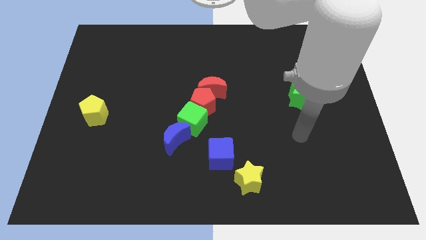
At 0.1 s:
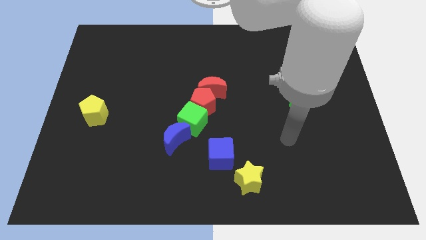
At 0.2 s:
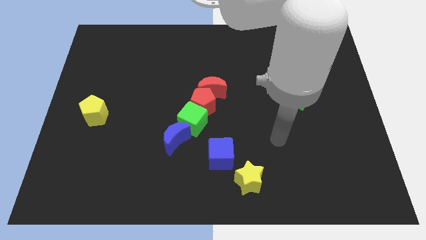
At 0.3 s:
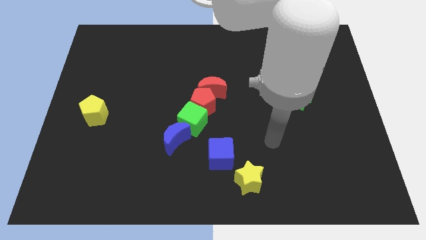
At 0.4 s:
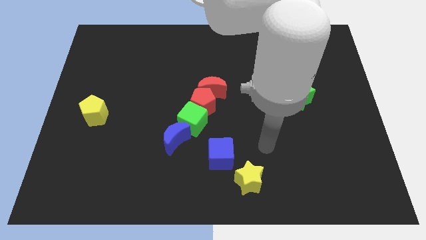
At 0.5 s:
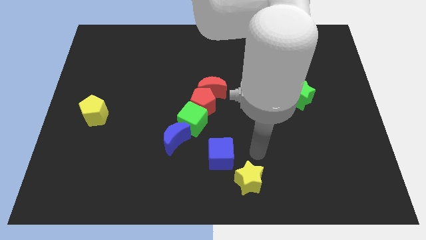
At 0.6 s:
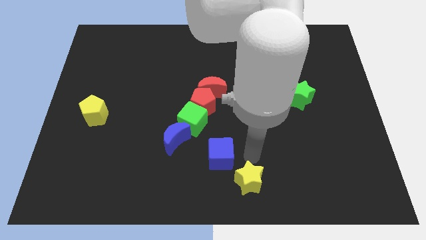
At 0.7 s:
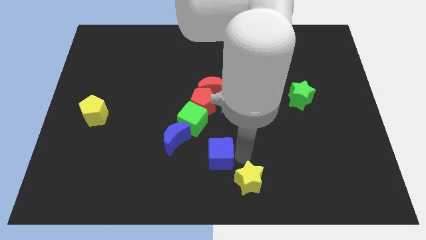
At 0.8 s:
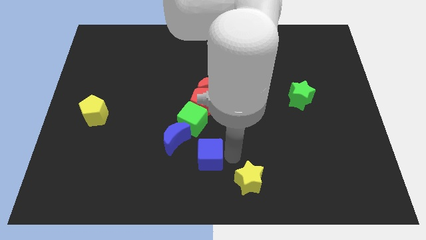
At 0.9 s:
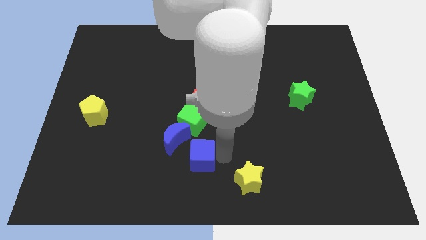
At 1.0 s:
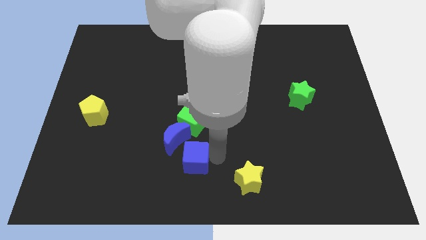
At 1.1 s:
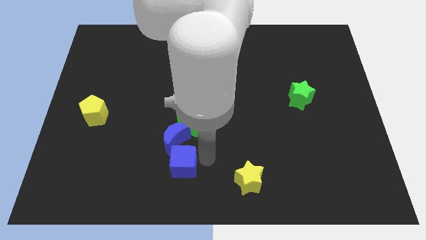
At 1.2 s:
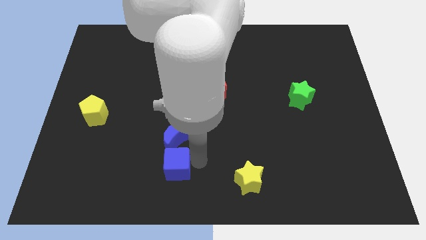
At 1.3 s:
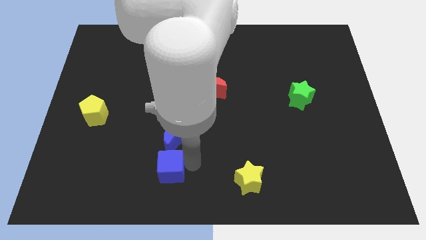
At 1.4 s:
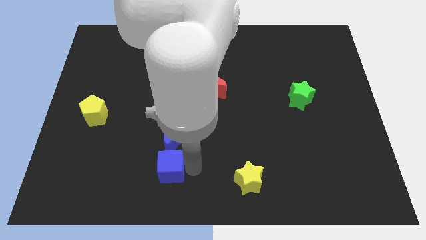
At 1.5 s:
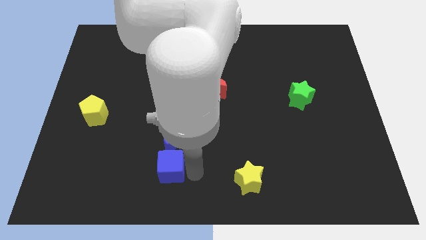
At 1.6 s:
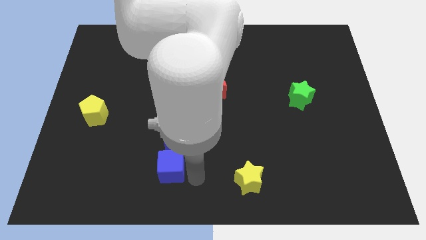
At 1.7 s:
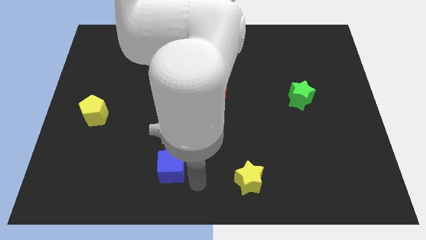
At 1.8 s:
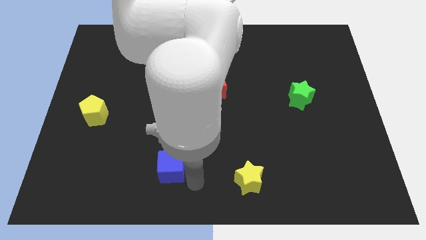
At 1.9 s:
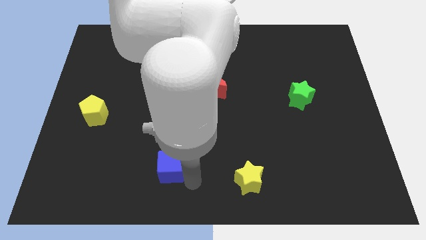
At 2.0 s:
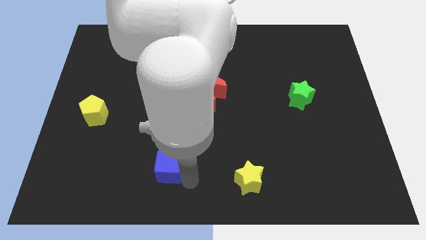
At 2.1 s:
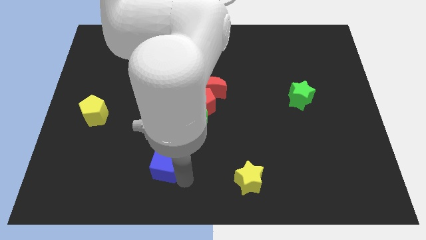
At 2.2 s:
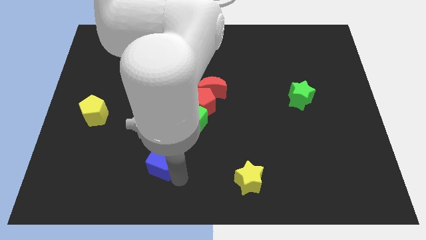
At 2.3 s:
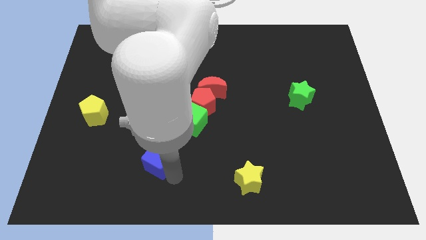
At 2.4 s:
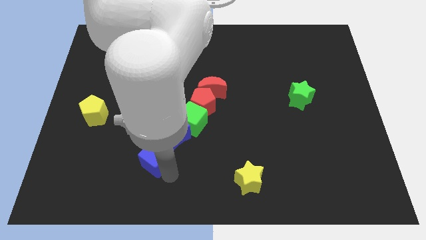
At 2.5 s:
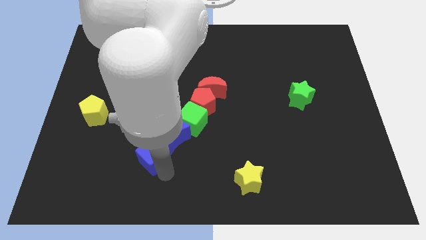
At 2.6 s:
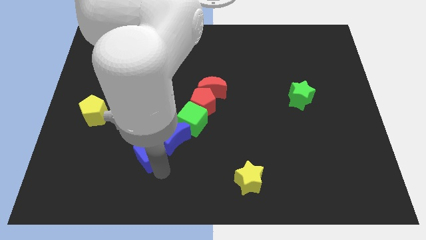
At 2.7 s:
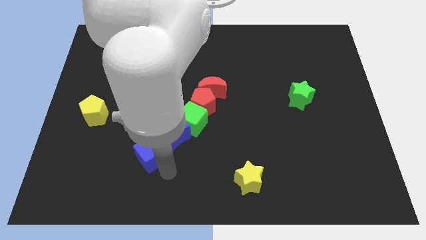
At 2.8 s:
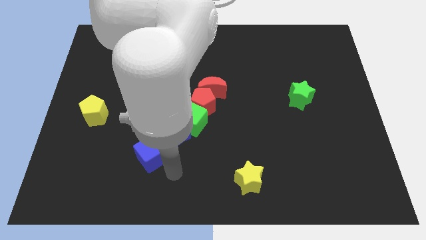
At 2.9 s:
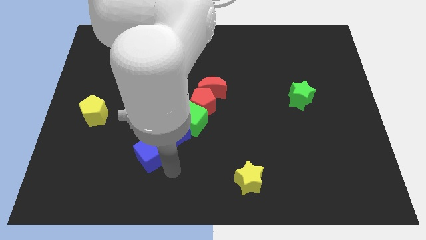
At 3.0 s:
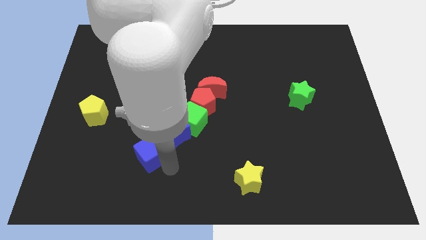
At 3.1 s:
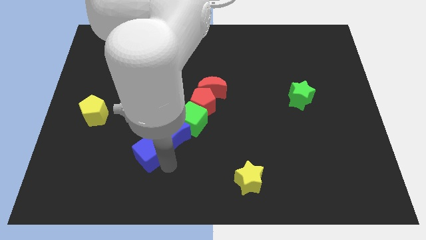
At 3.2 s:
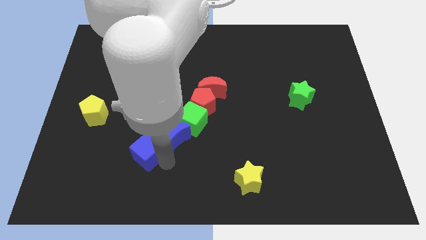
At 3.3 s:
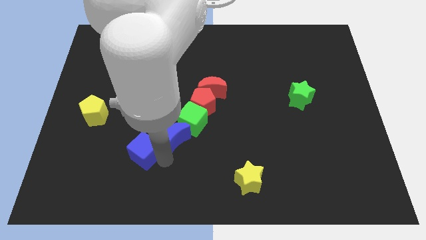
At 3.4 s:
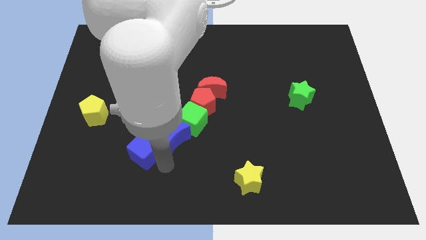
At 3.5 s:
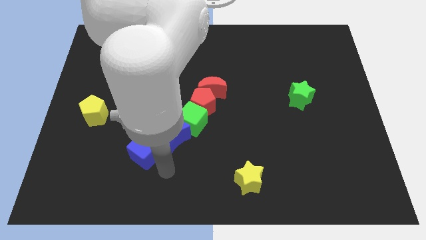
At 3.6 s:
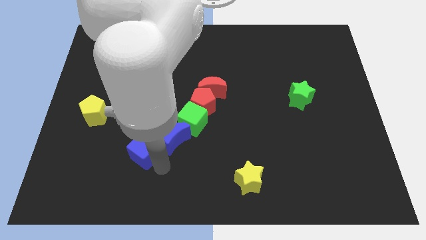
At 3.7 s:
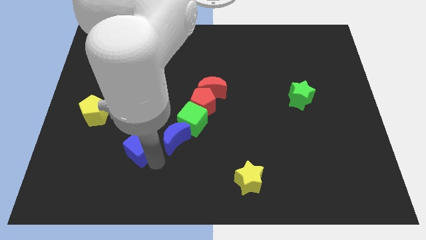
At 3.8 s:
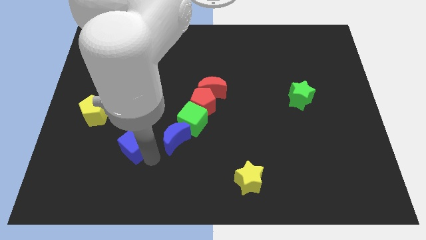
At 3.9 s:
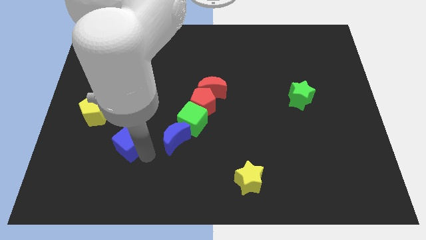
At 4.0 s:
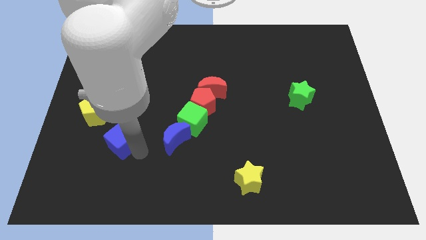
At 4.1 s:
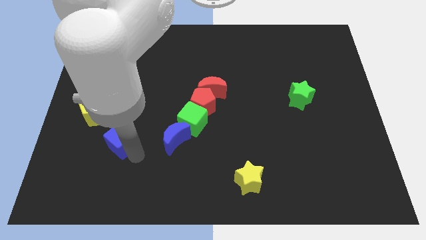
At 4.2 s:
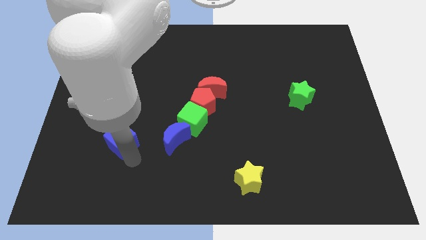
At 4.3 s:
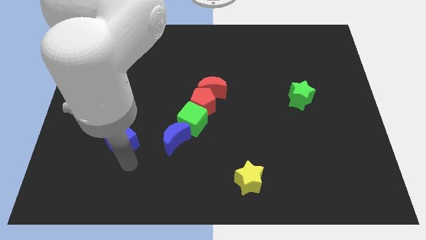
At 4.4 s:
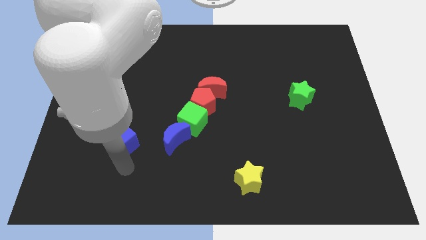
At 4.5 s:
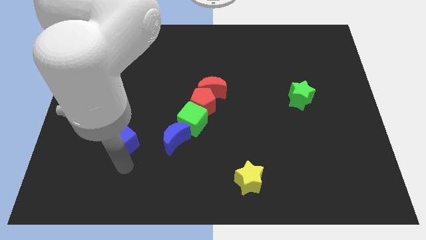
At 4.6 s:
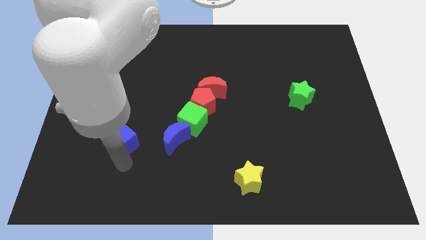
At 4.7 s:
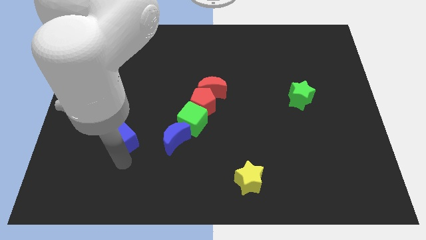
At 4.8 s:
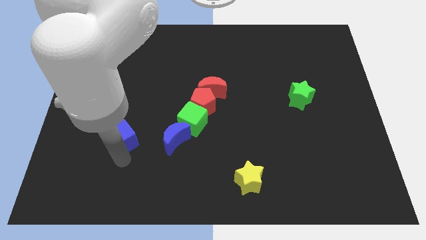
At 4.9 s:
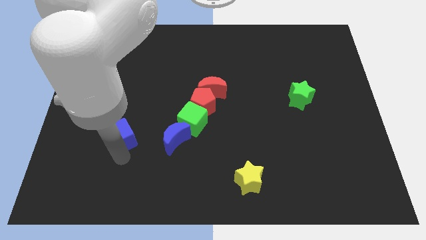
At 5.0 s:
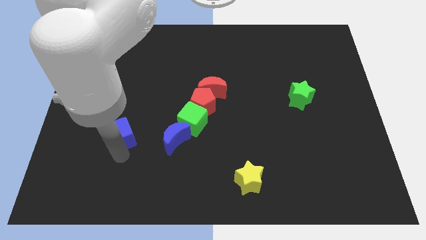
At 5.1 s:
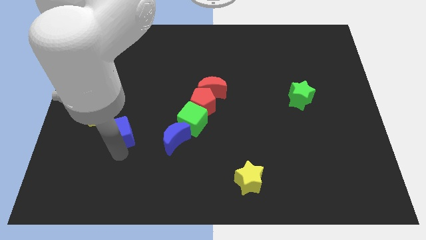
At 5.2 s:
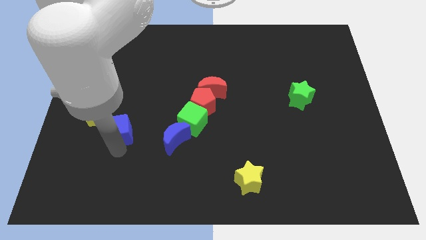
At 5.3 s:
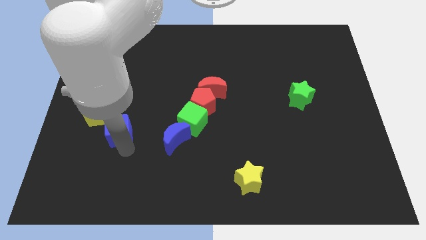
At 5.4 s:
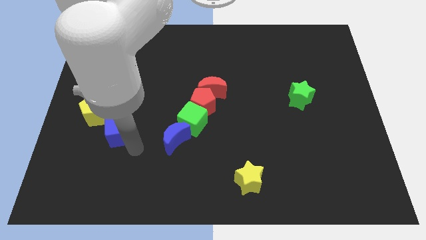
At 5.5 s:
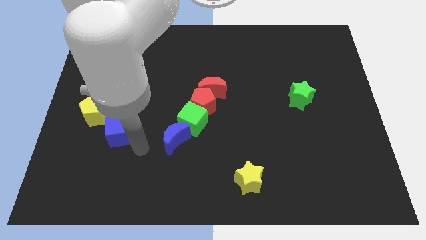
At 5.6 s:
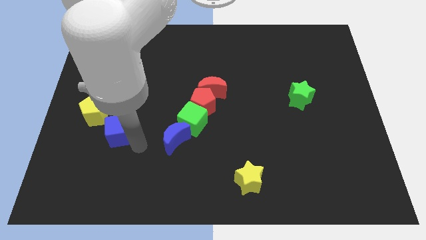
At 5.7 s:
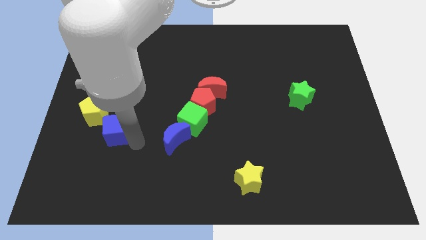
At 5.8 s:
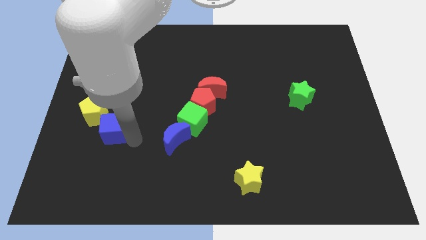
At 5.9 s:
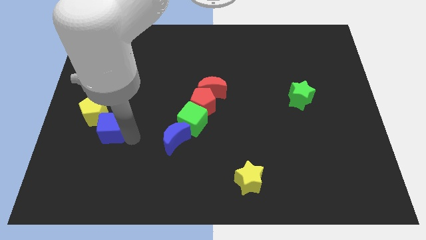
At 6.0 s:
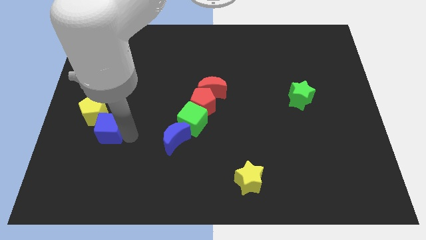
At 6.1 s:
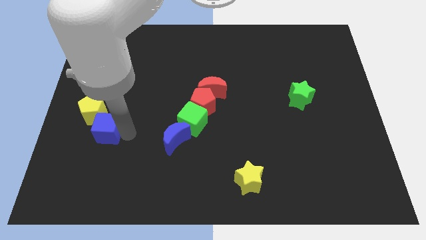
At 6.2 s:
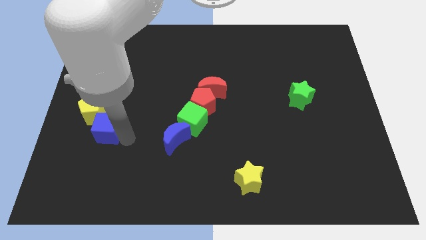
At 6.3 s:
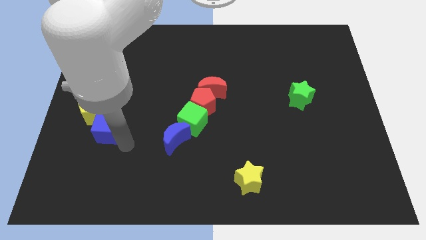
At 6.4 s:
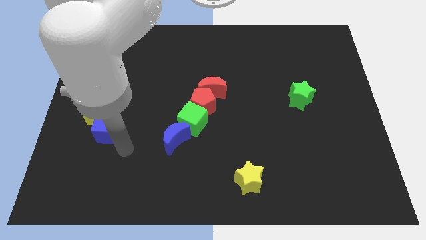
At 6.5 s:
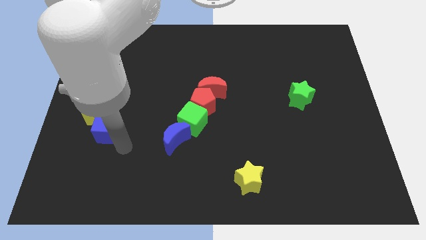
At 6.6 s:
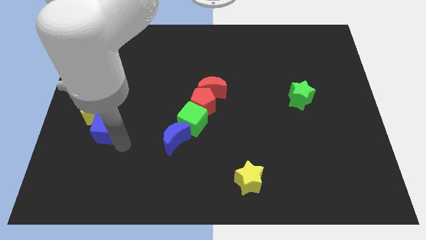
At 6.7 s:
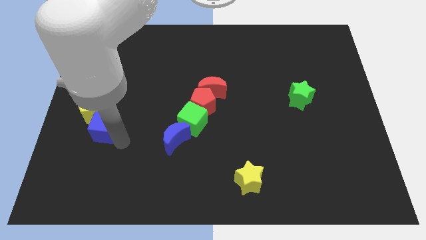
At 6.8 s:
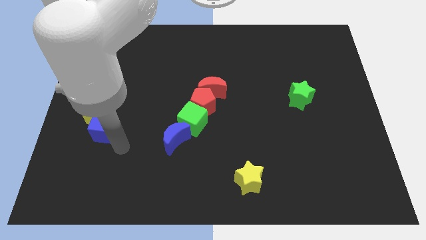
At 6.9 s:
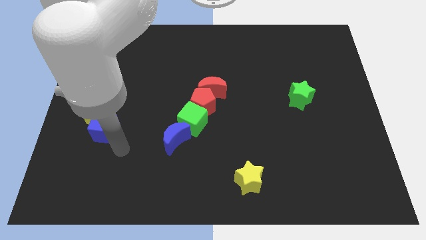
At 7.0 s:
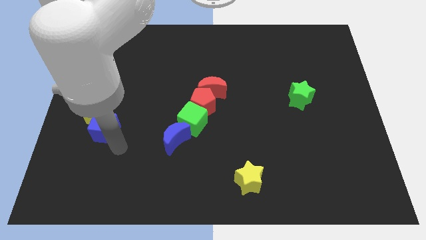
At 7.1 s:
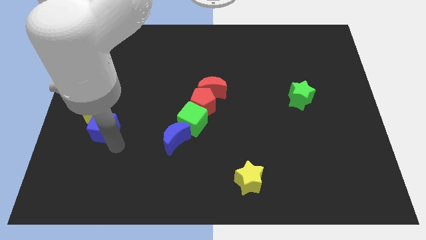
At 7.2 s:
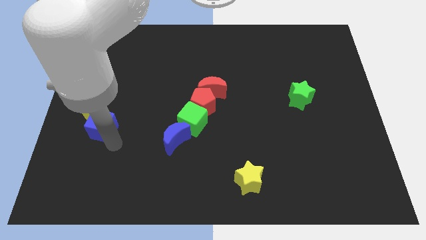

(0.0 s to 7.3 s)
push the blue cube close to the yellow pentagon

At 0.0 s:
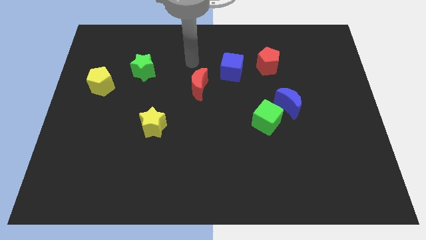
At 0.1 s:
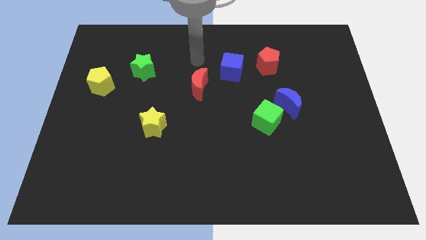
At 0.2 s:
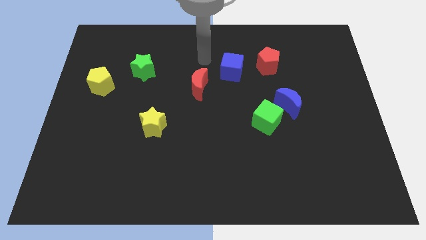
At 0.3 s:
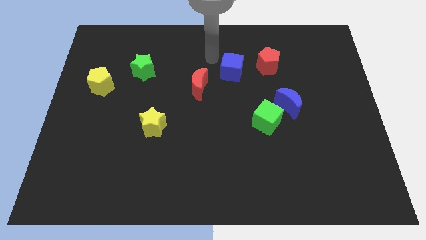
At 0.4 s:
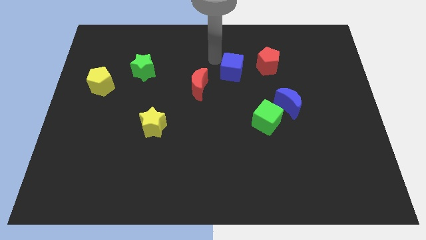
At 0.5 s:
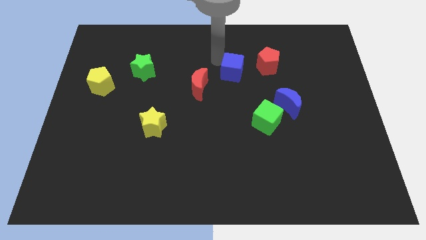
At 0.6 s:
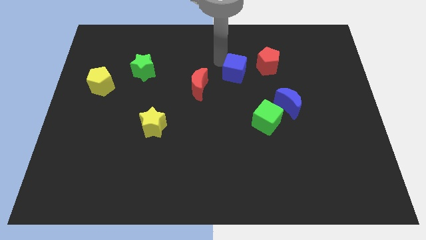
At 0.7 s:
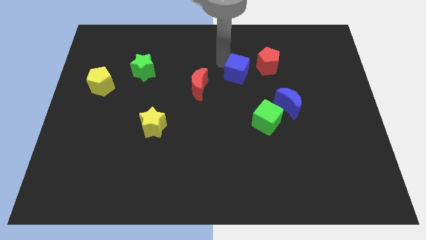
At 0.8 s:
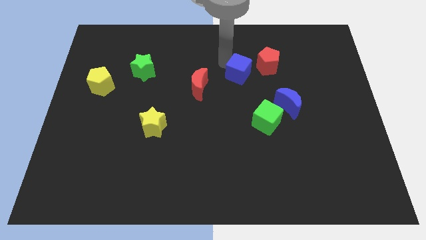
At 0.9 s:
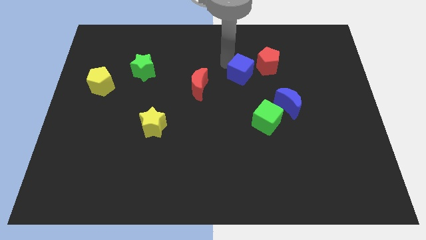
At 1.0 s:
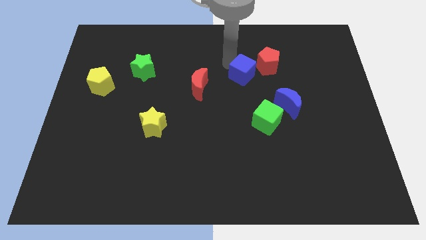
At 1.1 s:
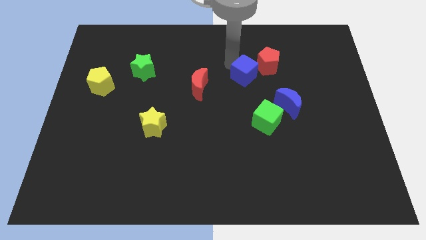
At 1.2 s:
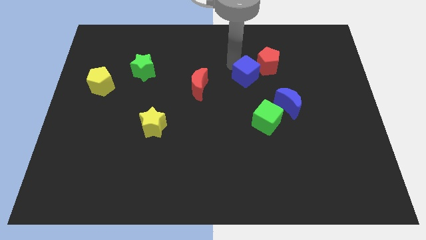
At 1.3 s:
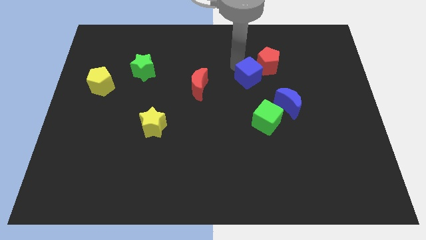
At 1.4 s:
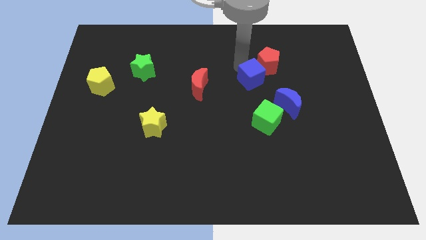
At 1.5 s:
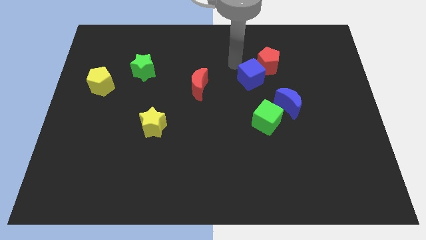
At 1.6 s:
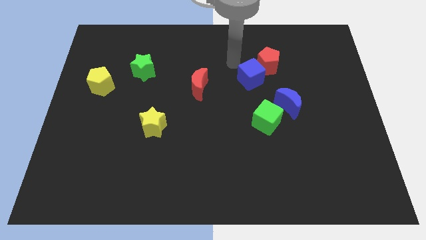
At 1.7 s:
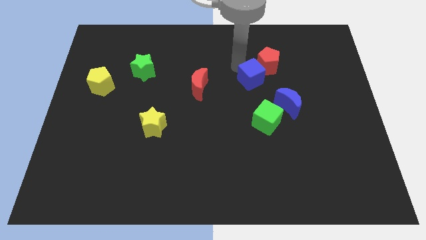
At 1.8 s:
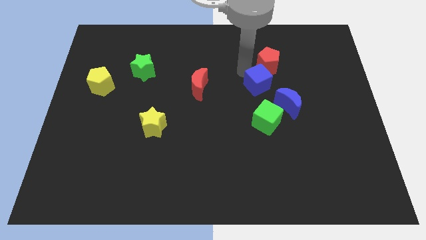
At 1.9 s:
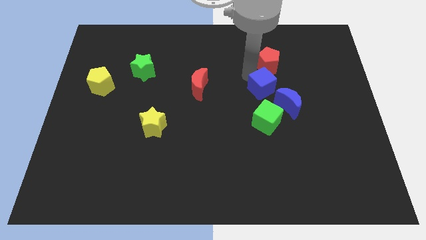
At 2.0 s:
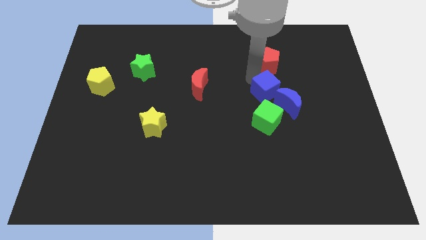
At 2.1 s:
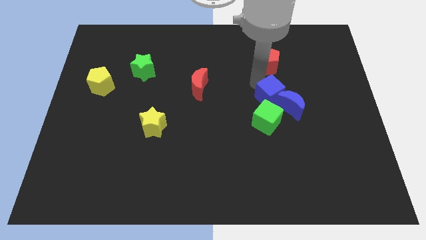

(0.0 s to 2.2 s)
push the blue cube next to the blue moon
